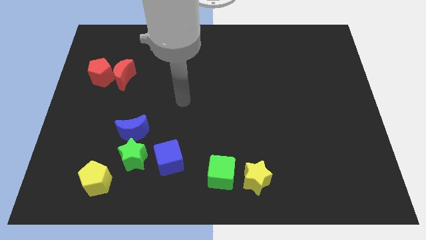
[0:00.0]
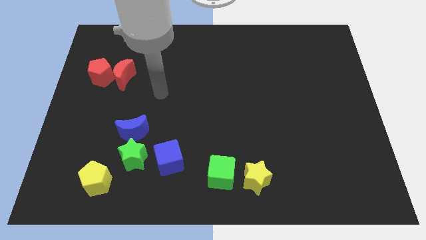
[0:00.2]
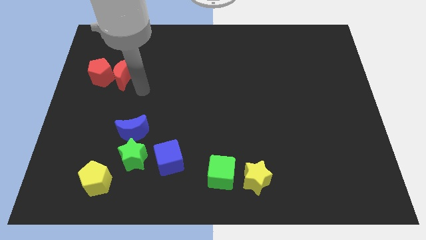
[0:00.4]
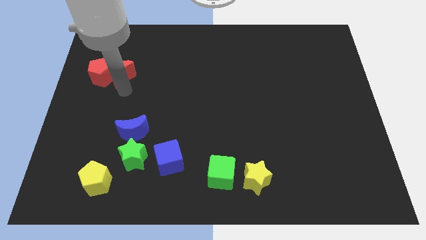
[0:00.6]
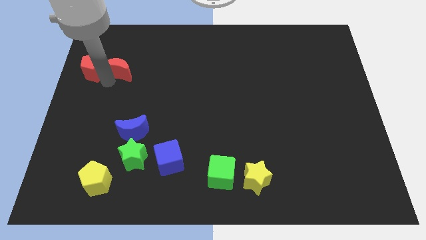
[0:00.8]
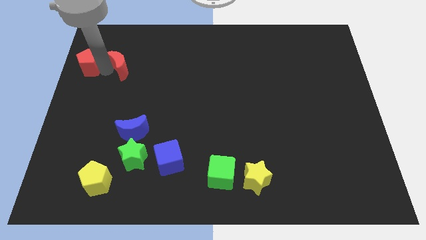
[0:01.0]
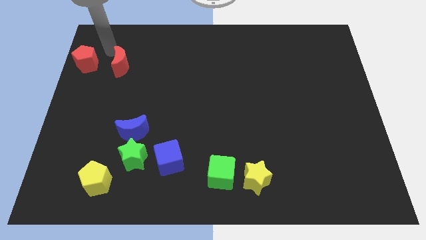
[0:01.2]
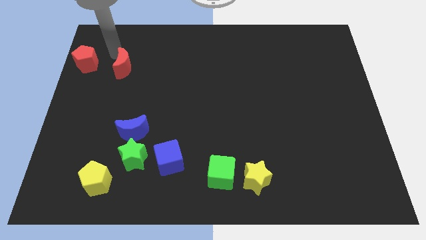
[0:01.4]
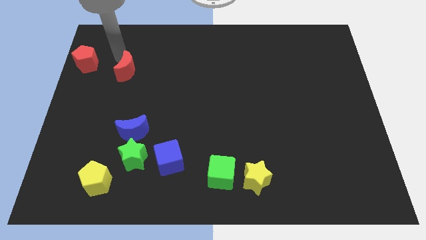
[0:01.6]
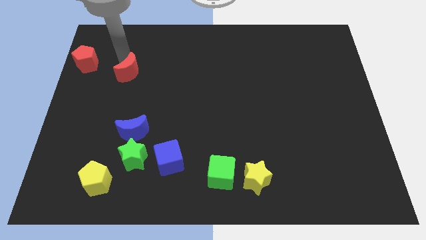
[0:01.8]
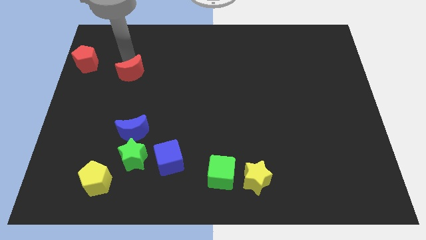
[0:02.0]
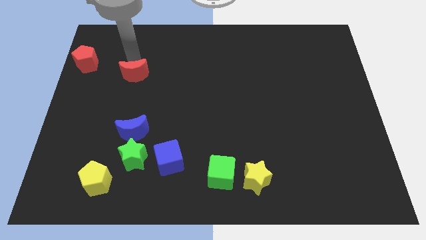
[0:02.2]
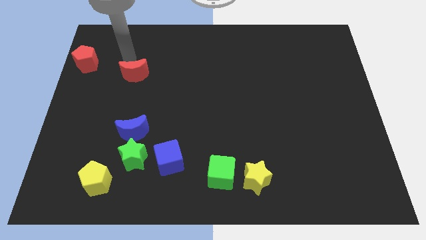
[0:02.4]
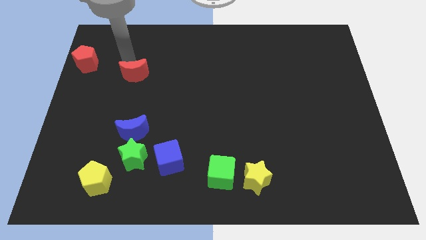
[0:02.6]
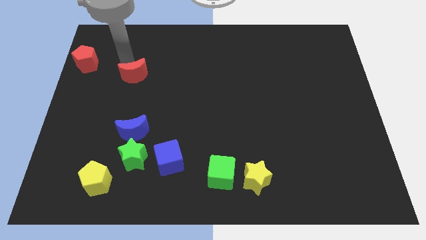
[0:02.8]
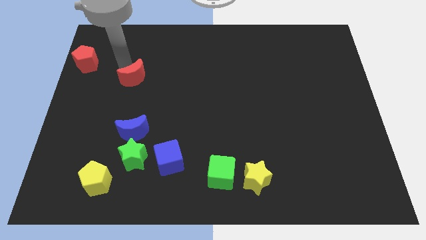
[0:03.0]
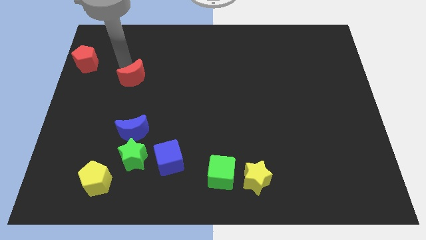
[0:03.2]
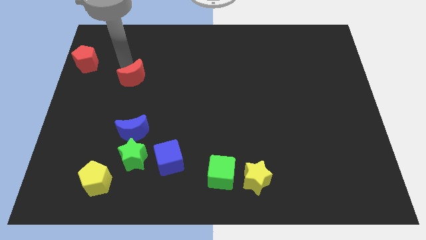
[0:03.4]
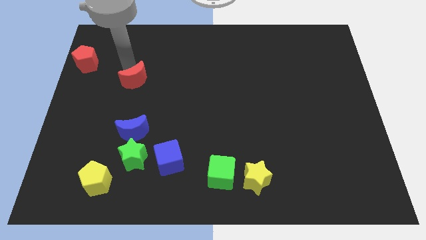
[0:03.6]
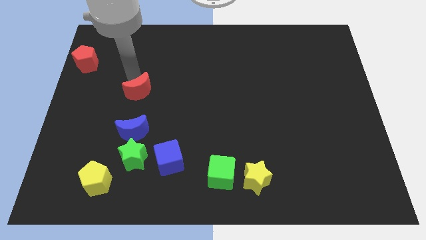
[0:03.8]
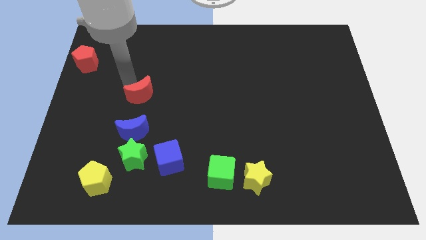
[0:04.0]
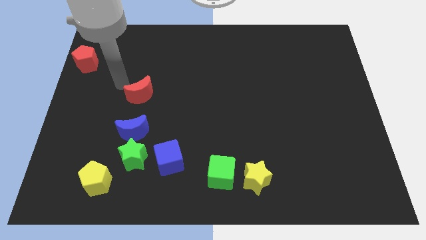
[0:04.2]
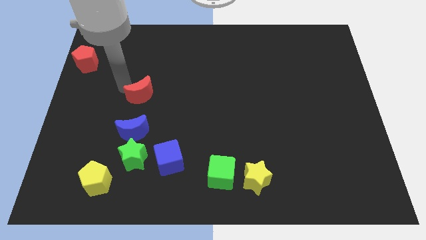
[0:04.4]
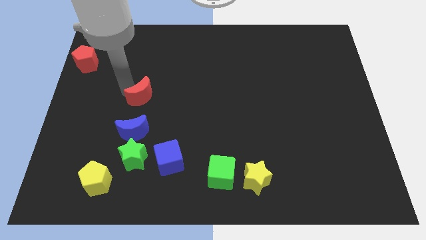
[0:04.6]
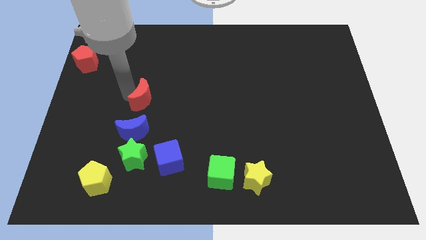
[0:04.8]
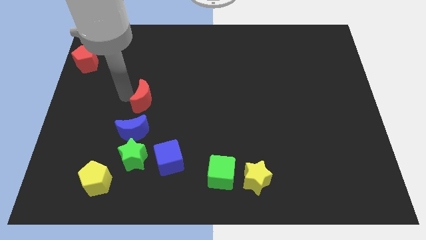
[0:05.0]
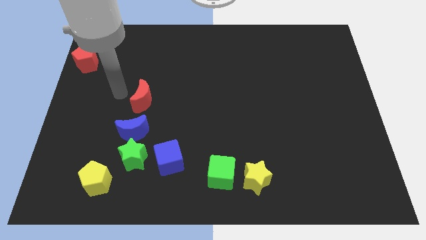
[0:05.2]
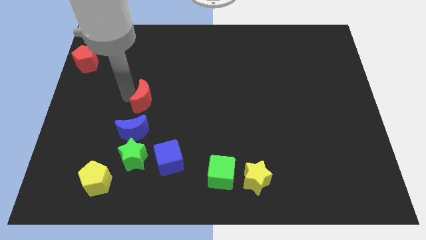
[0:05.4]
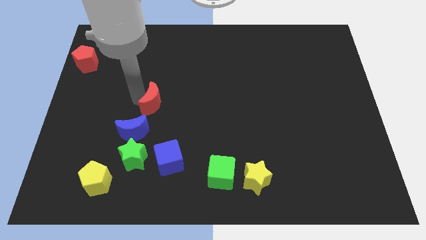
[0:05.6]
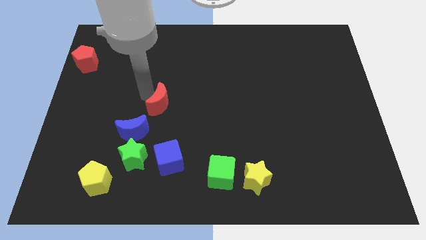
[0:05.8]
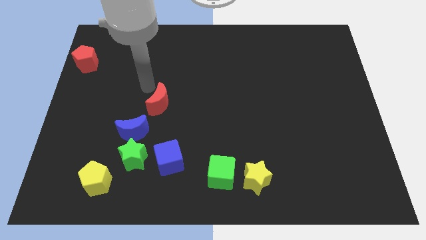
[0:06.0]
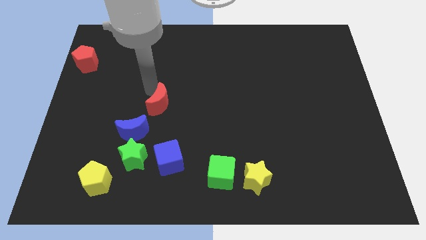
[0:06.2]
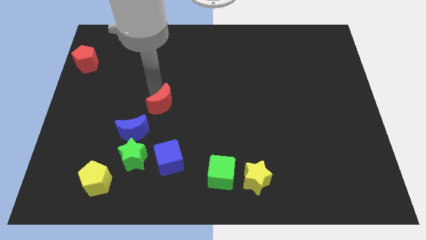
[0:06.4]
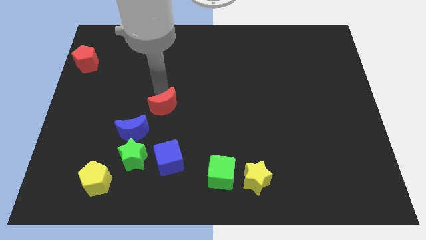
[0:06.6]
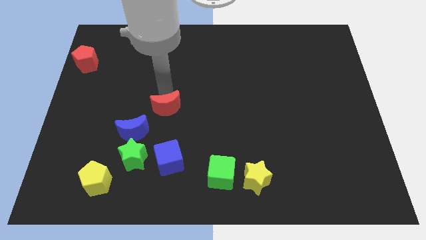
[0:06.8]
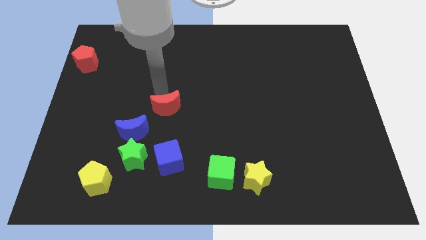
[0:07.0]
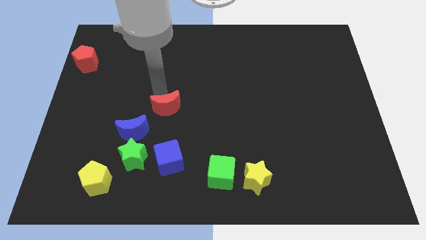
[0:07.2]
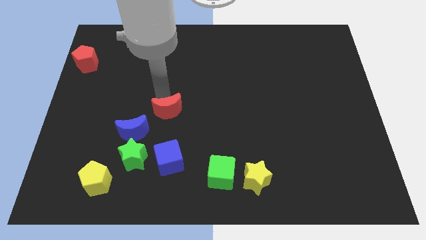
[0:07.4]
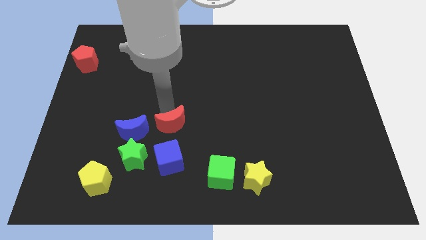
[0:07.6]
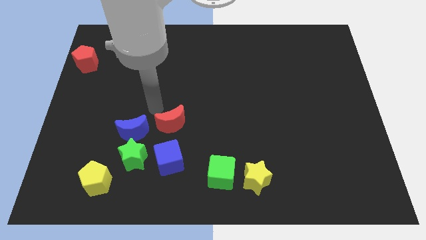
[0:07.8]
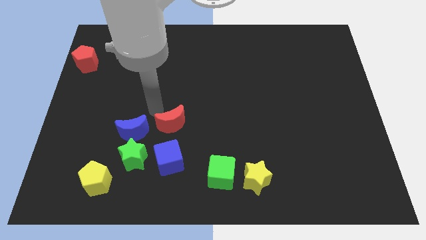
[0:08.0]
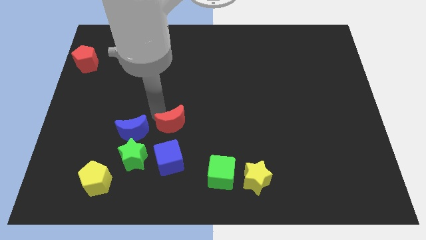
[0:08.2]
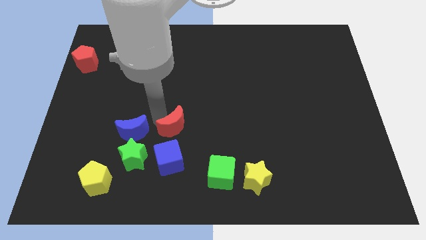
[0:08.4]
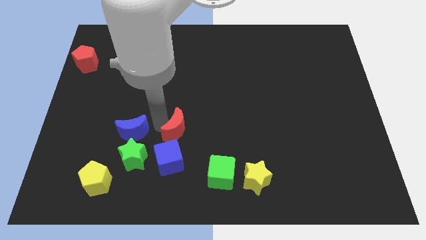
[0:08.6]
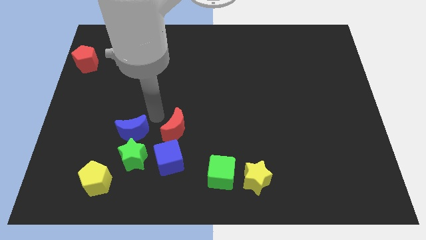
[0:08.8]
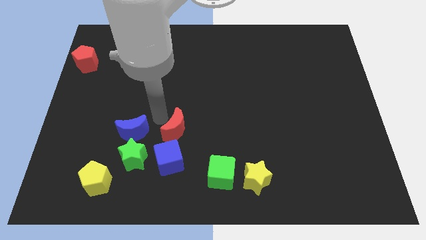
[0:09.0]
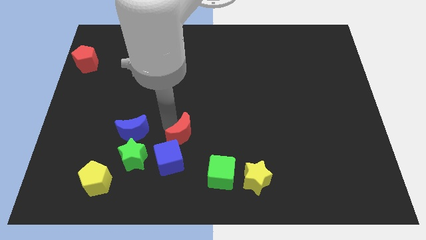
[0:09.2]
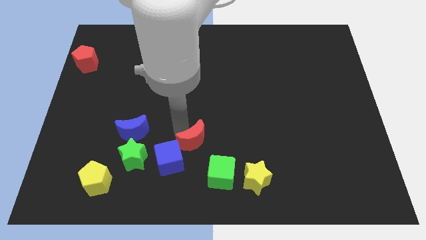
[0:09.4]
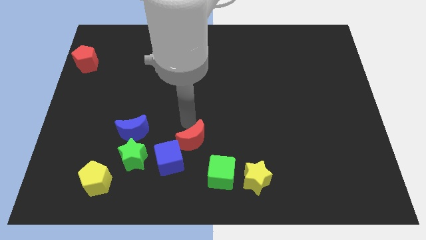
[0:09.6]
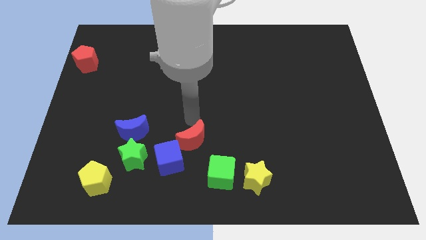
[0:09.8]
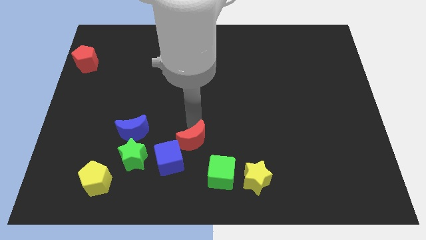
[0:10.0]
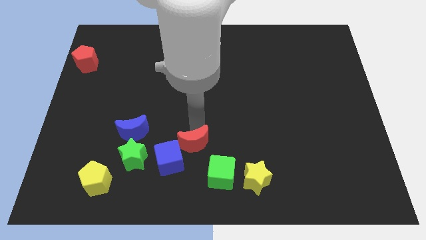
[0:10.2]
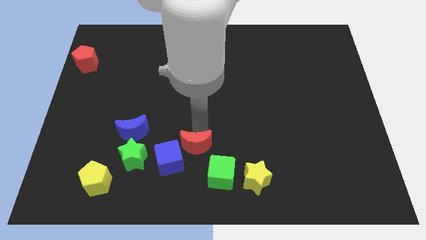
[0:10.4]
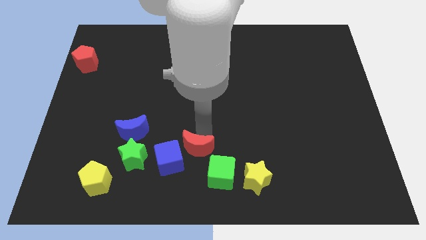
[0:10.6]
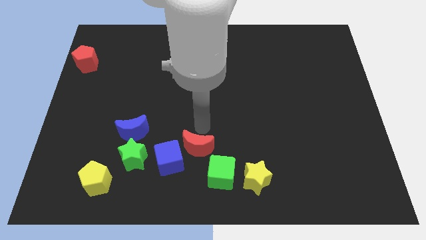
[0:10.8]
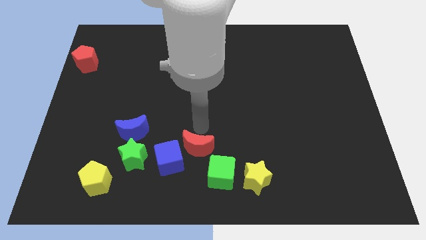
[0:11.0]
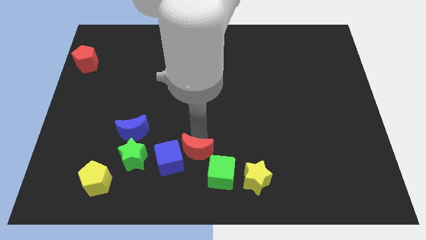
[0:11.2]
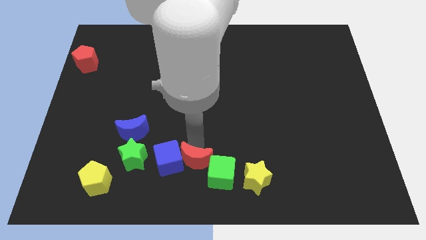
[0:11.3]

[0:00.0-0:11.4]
put the red moon to the bottom side
